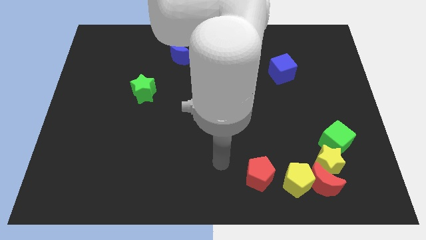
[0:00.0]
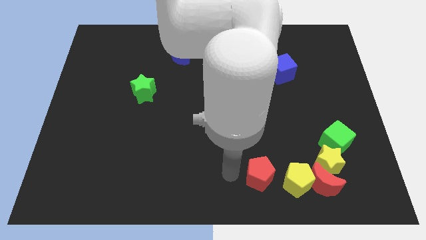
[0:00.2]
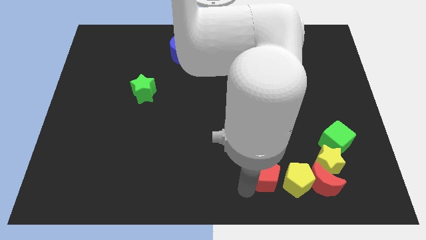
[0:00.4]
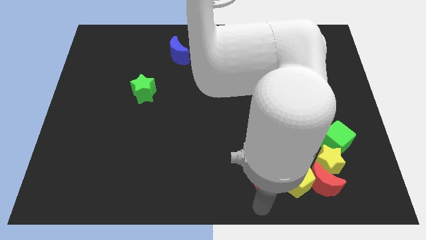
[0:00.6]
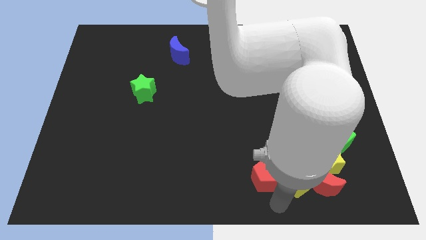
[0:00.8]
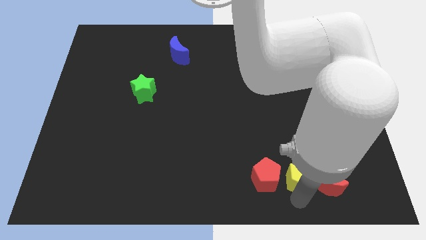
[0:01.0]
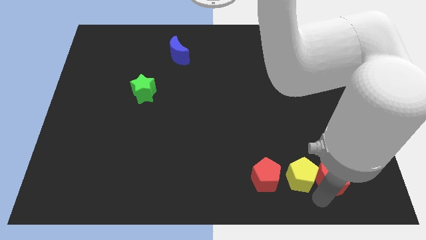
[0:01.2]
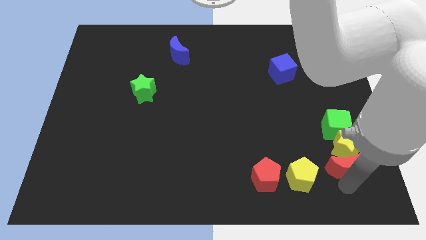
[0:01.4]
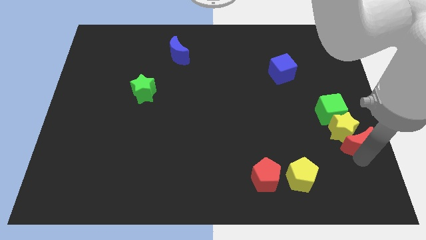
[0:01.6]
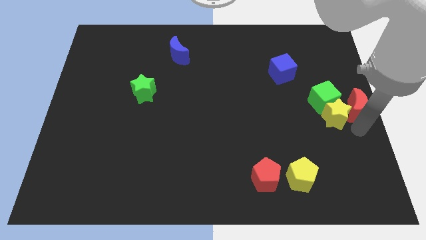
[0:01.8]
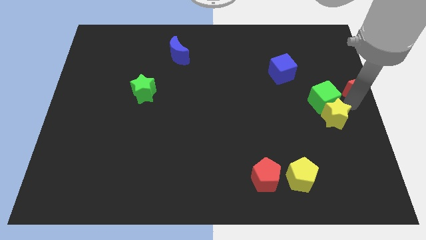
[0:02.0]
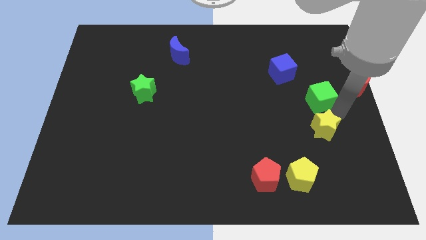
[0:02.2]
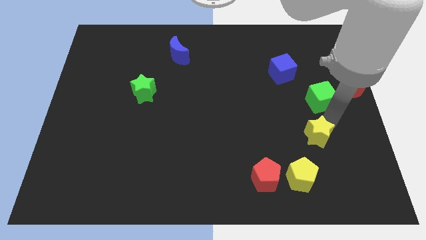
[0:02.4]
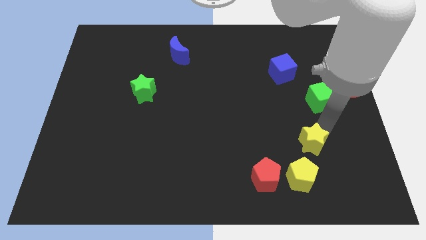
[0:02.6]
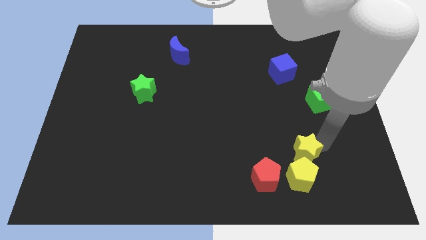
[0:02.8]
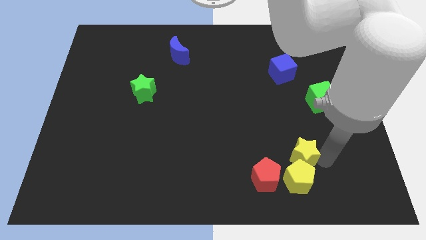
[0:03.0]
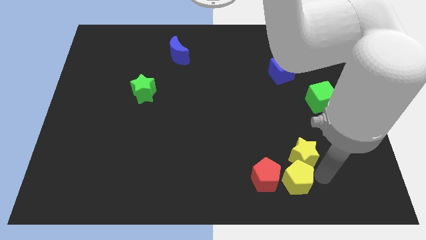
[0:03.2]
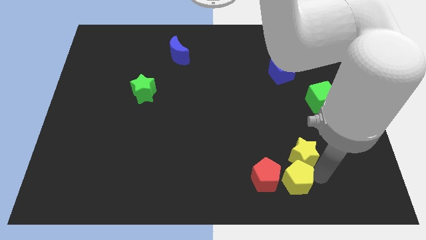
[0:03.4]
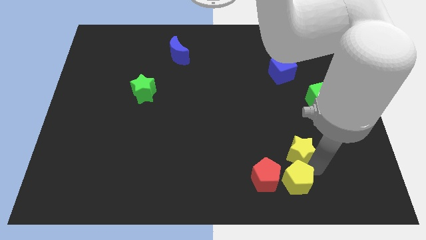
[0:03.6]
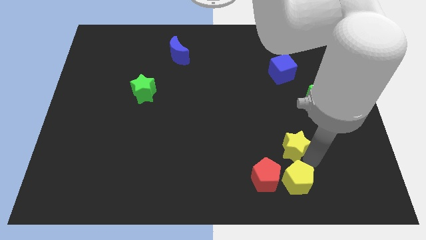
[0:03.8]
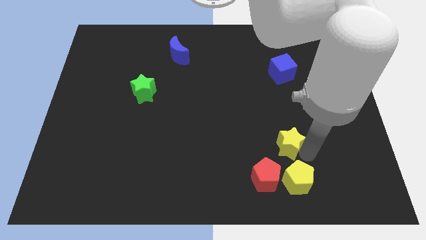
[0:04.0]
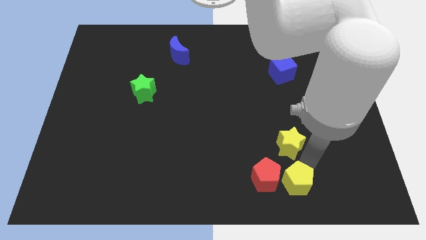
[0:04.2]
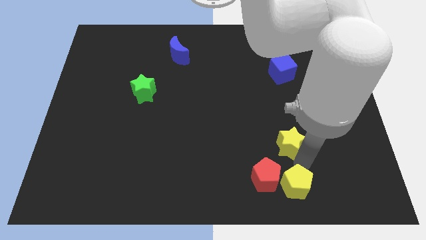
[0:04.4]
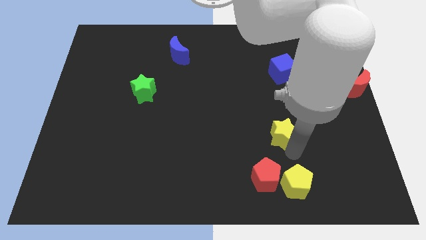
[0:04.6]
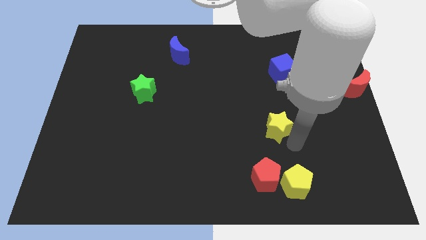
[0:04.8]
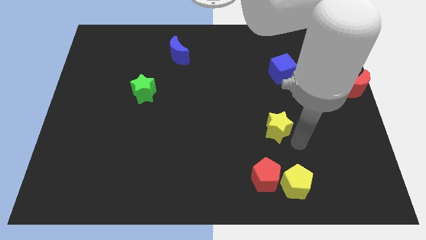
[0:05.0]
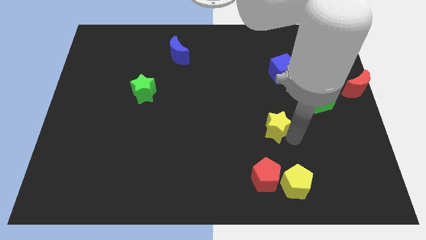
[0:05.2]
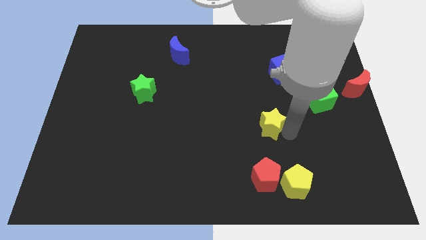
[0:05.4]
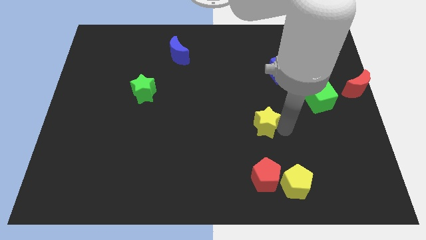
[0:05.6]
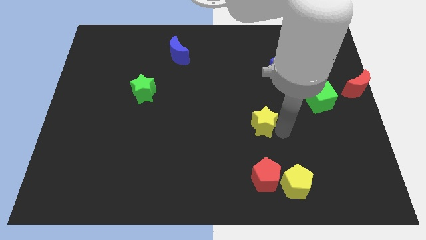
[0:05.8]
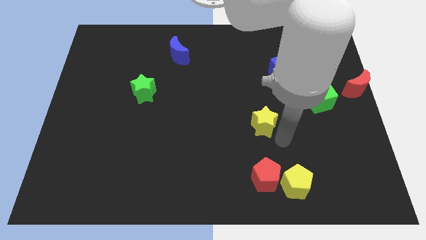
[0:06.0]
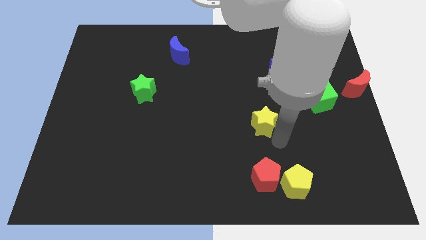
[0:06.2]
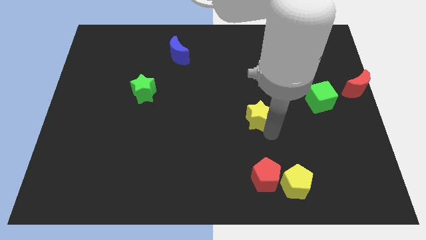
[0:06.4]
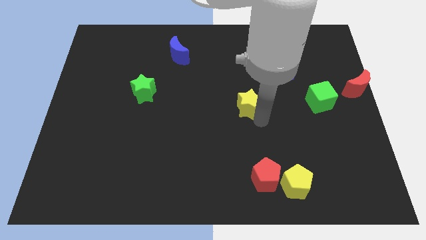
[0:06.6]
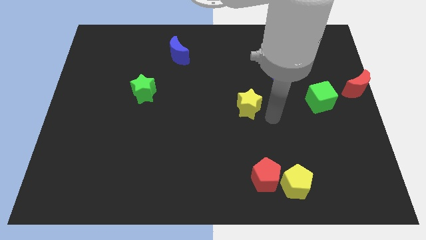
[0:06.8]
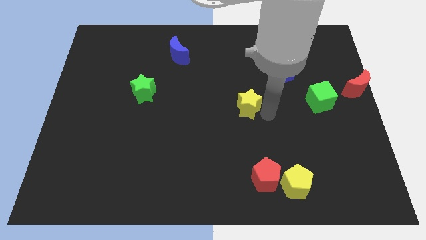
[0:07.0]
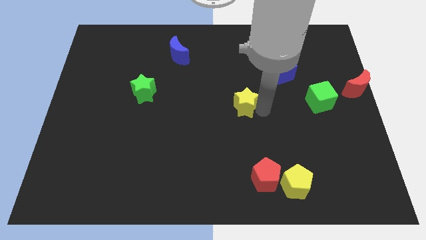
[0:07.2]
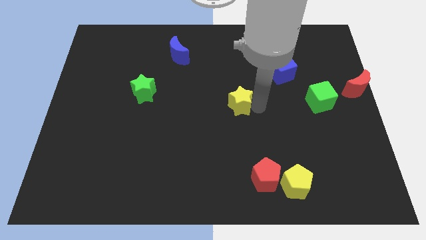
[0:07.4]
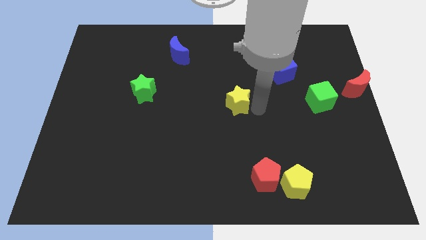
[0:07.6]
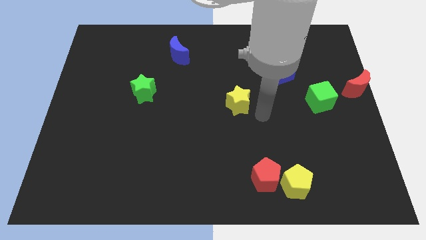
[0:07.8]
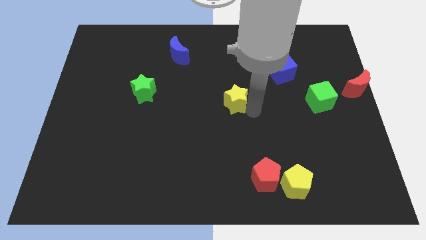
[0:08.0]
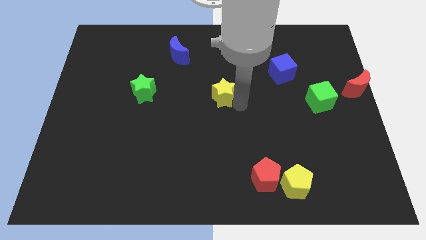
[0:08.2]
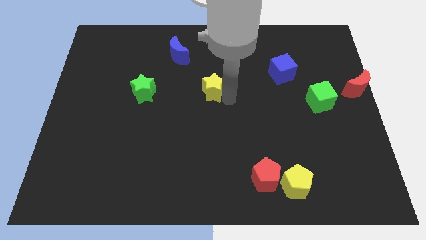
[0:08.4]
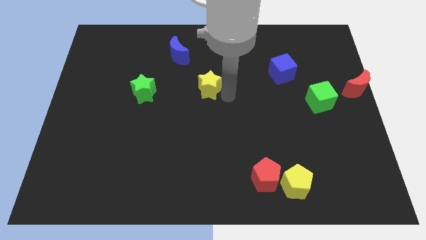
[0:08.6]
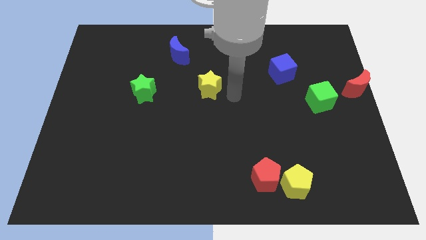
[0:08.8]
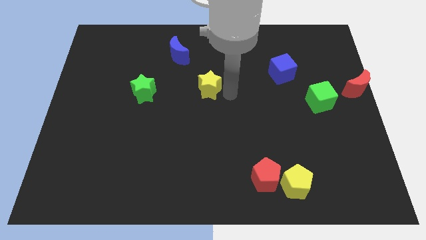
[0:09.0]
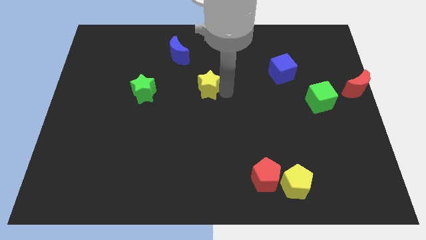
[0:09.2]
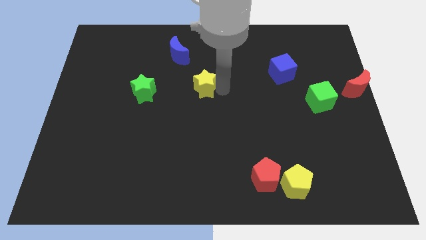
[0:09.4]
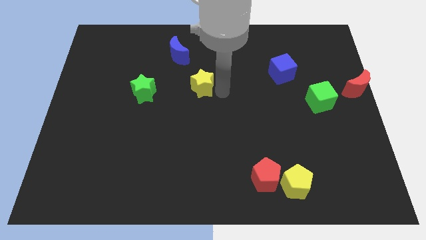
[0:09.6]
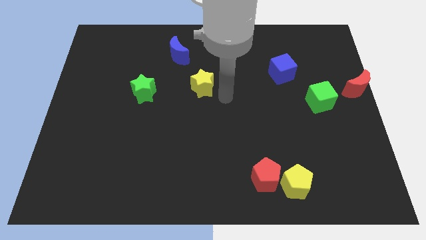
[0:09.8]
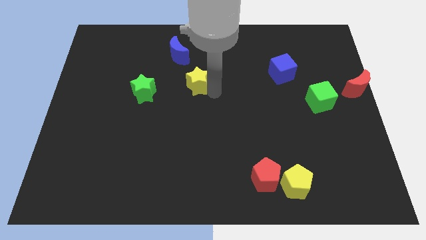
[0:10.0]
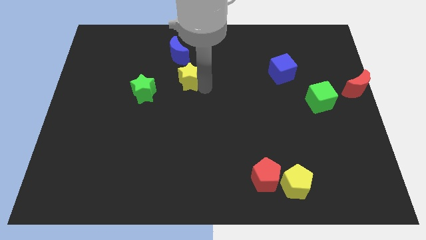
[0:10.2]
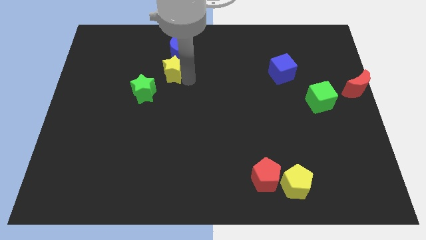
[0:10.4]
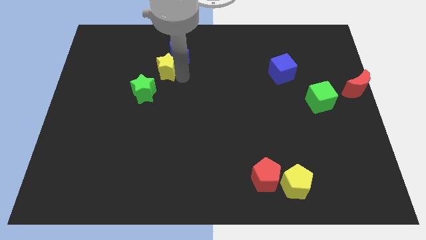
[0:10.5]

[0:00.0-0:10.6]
move the yellow star above the green star

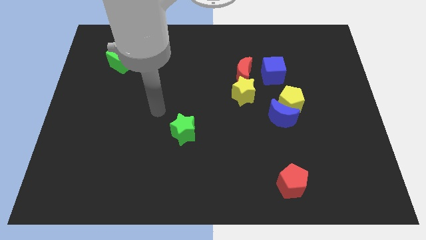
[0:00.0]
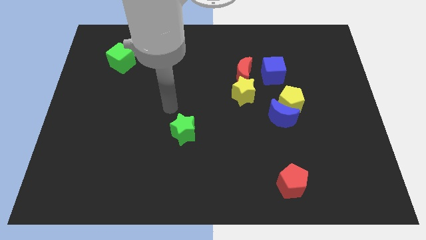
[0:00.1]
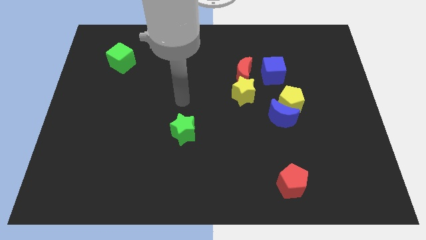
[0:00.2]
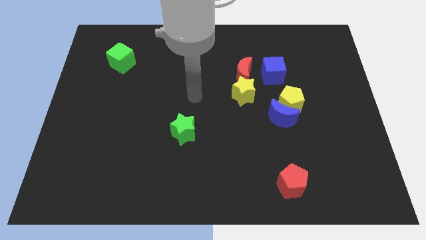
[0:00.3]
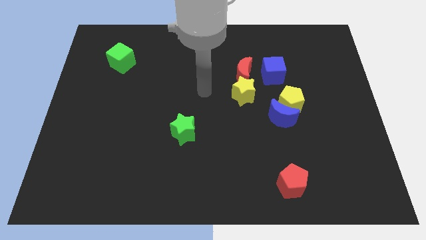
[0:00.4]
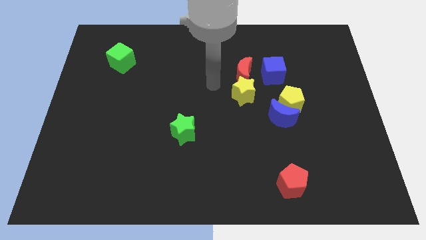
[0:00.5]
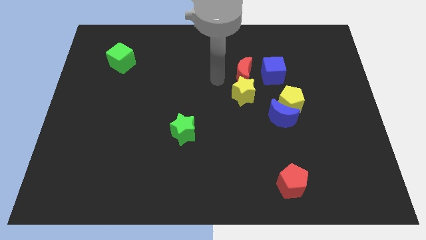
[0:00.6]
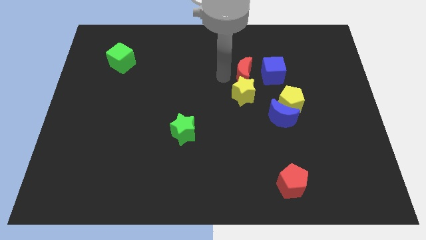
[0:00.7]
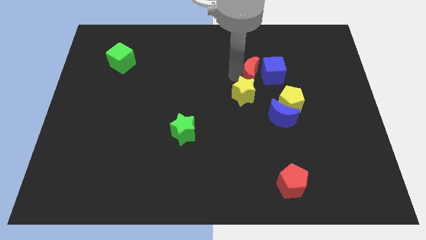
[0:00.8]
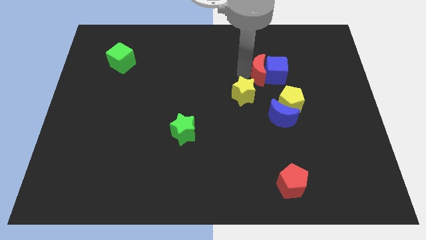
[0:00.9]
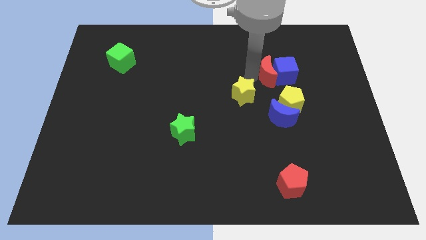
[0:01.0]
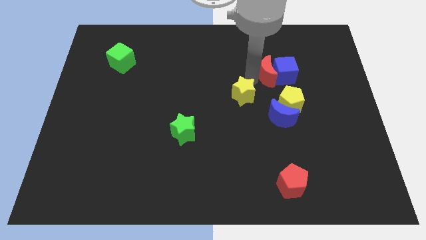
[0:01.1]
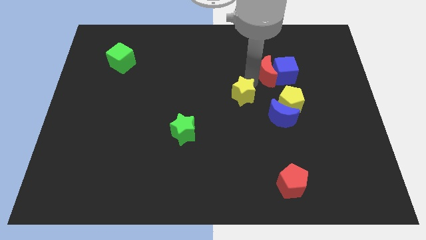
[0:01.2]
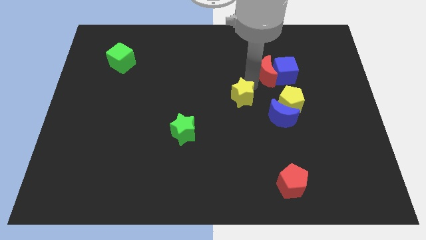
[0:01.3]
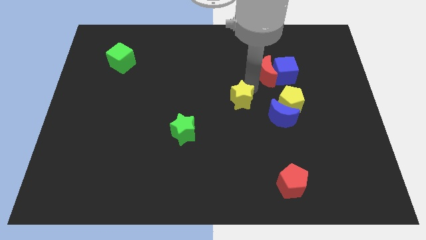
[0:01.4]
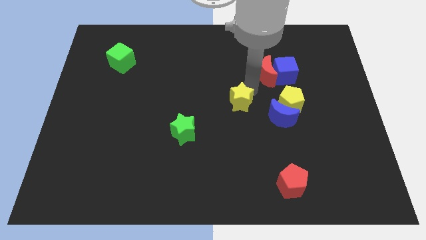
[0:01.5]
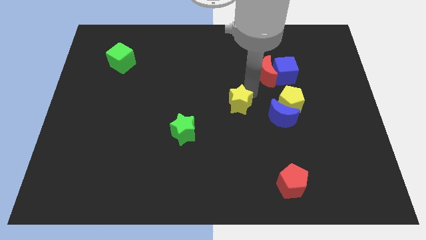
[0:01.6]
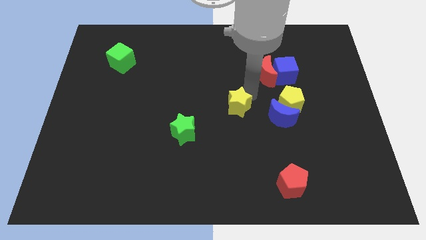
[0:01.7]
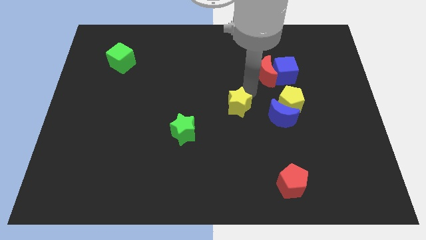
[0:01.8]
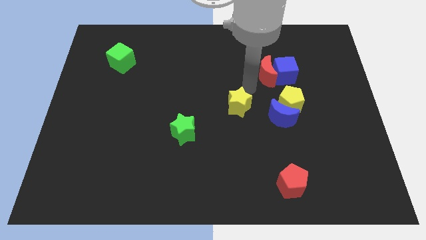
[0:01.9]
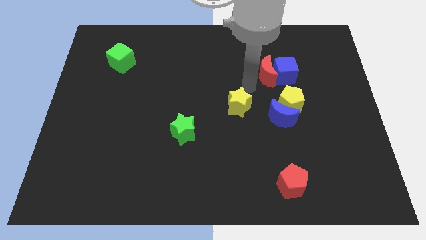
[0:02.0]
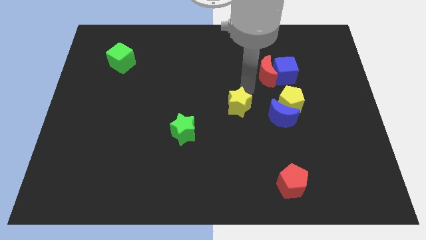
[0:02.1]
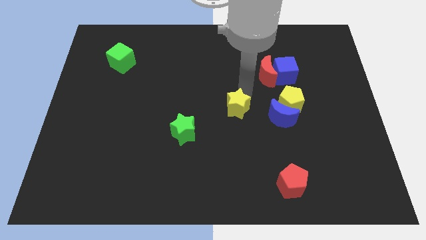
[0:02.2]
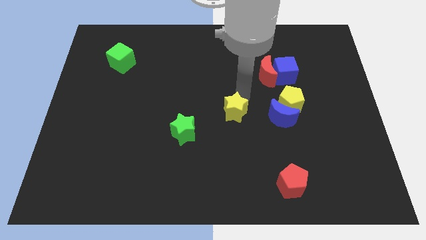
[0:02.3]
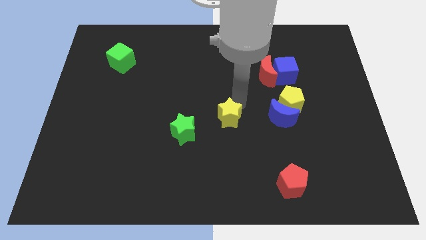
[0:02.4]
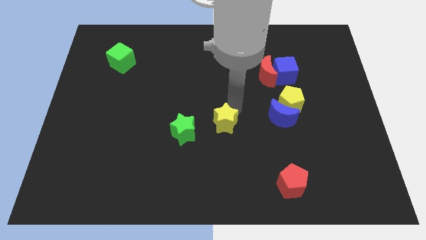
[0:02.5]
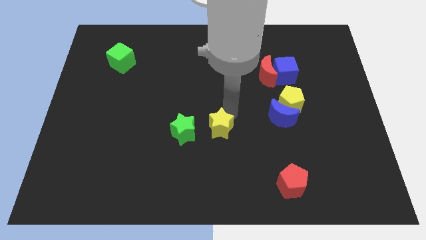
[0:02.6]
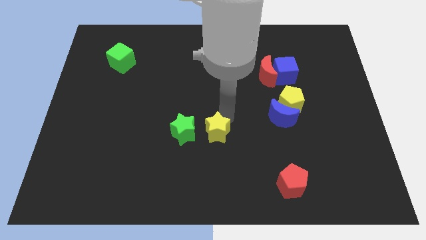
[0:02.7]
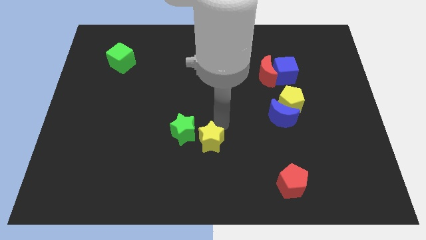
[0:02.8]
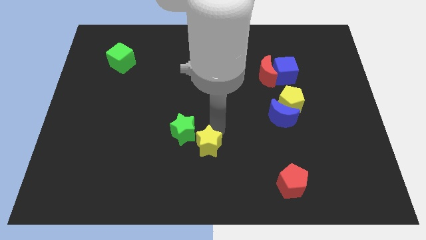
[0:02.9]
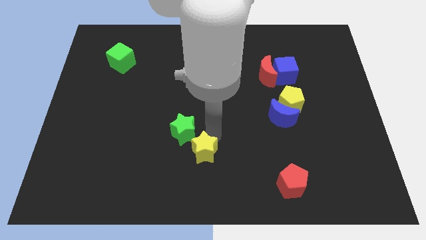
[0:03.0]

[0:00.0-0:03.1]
slide the yellow star to the bottom of the green star
